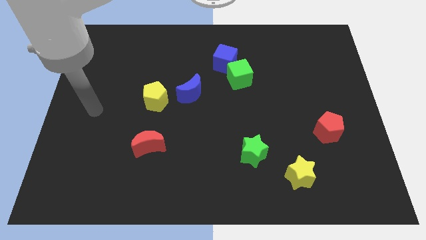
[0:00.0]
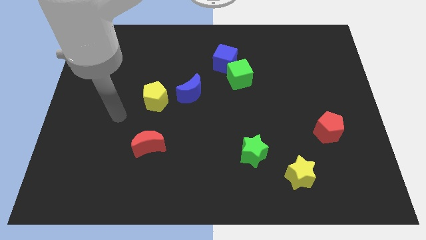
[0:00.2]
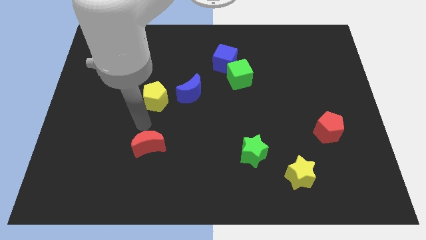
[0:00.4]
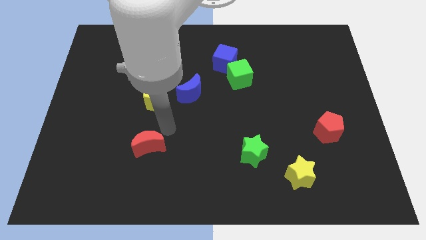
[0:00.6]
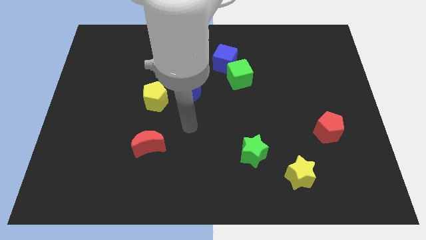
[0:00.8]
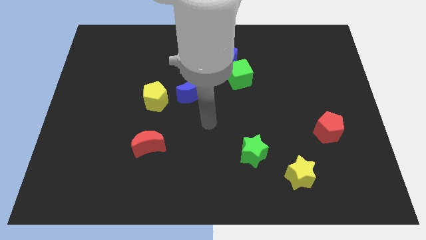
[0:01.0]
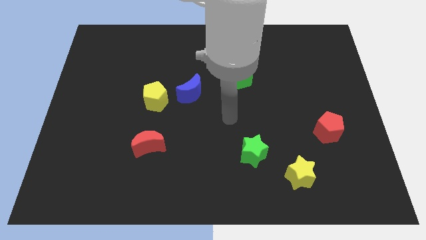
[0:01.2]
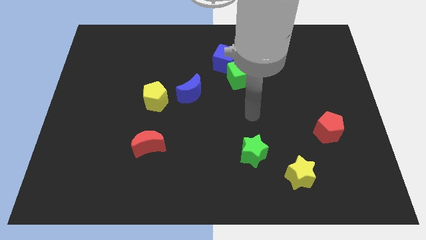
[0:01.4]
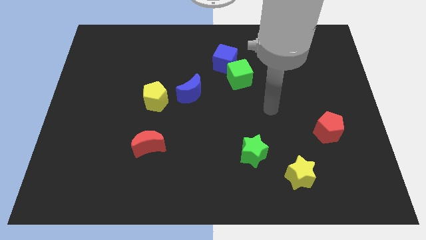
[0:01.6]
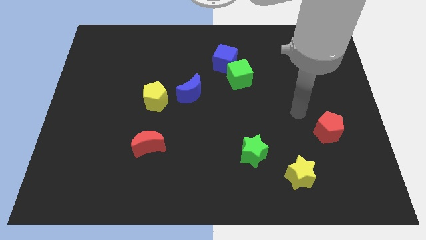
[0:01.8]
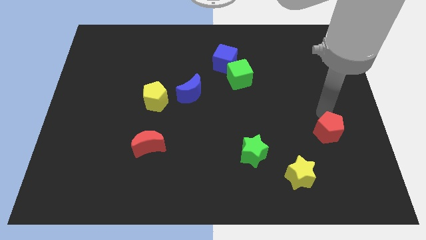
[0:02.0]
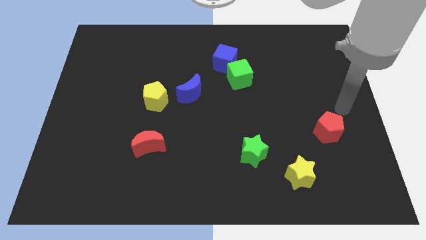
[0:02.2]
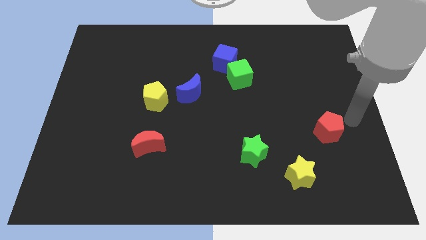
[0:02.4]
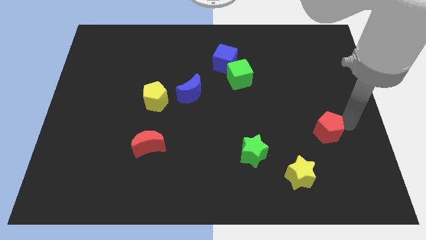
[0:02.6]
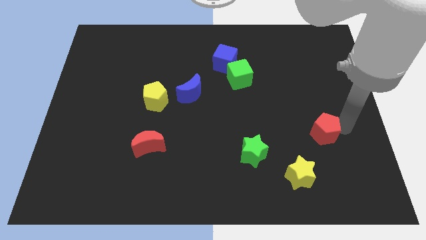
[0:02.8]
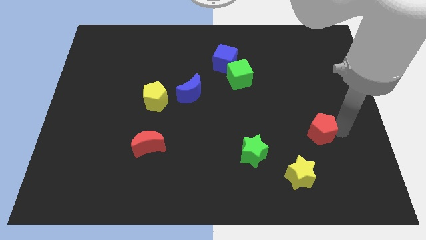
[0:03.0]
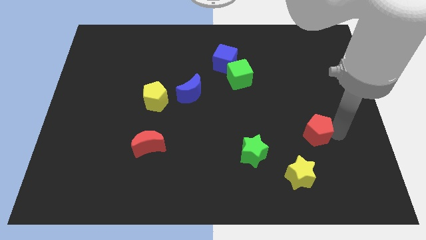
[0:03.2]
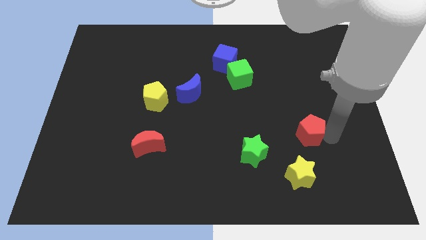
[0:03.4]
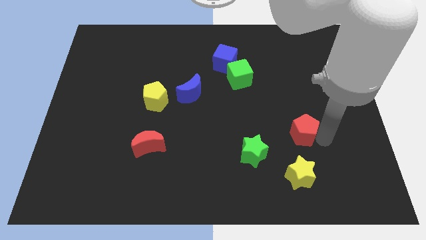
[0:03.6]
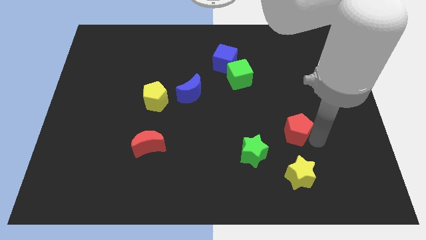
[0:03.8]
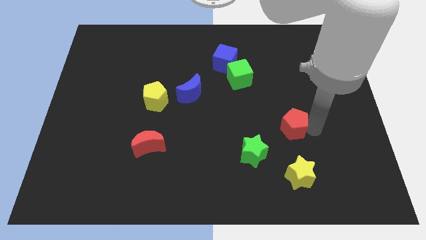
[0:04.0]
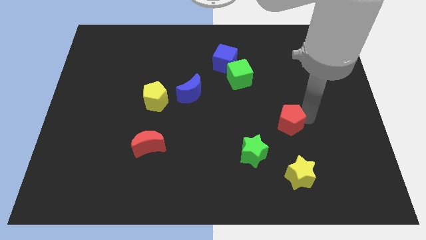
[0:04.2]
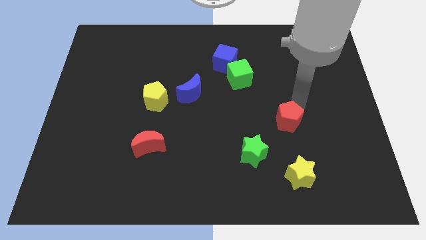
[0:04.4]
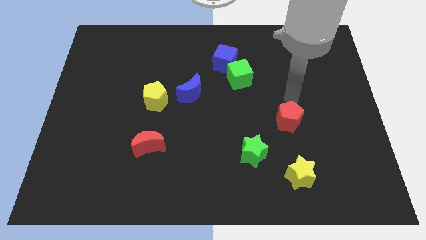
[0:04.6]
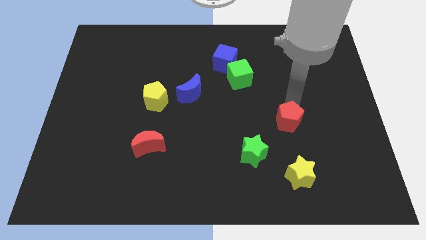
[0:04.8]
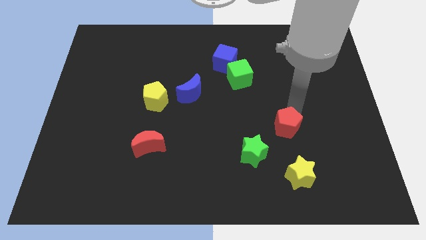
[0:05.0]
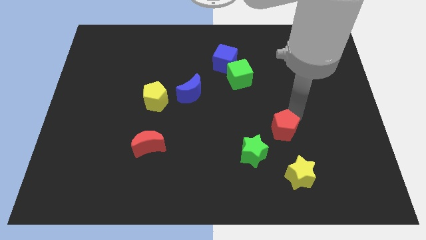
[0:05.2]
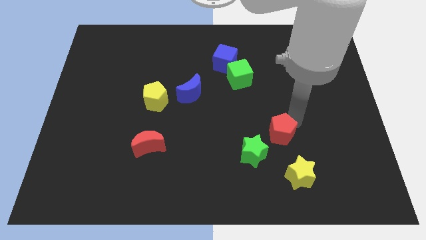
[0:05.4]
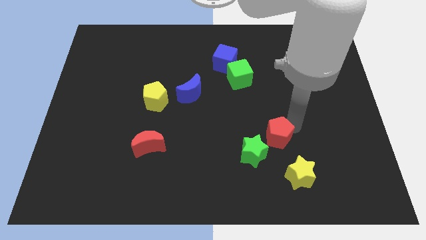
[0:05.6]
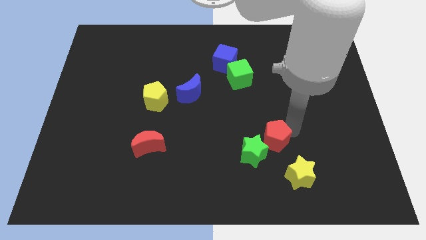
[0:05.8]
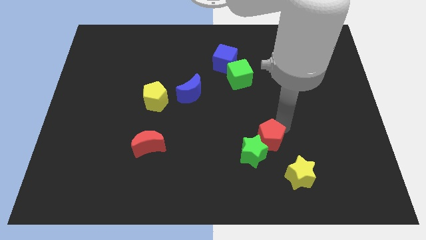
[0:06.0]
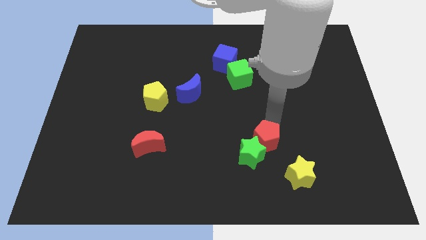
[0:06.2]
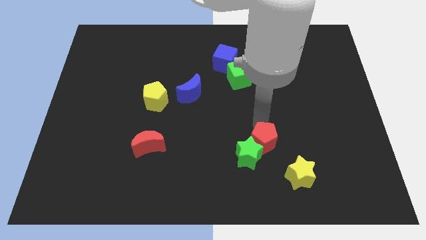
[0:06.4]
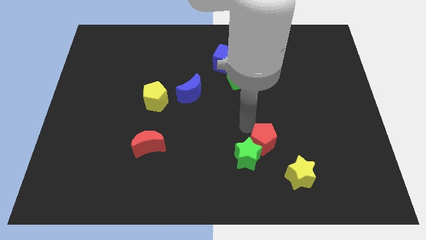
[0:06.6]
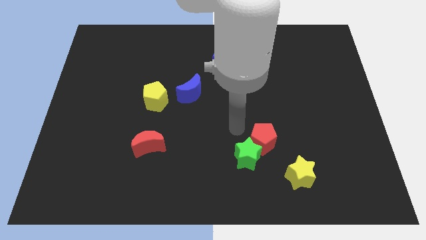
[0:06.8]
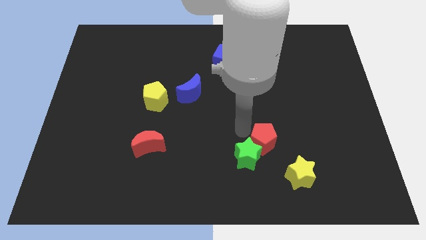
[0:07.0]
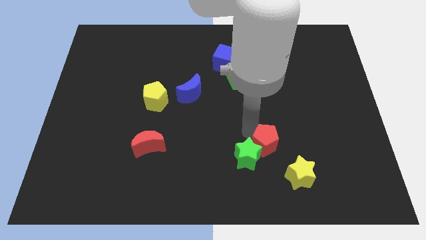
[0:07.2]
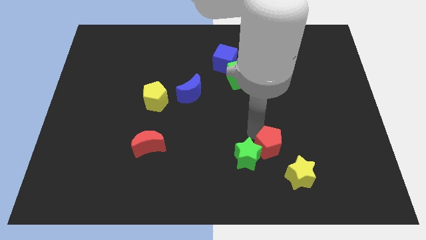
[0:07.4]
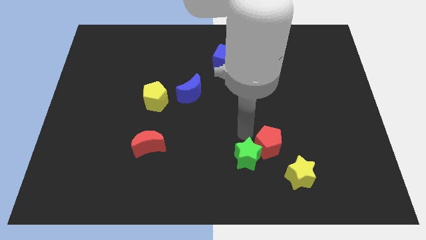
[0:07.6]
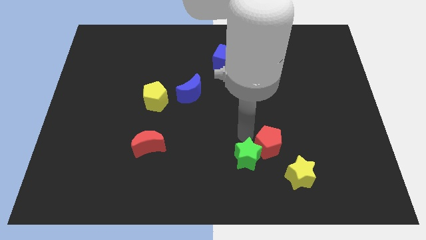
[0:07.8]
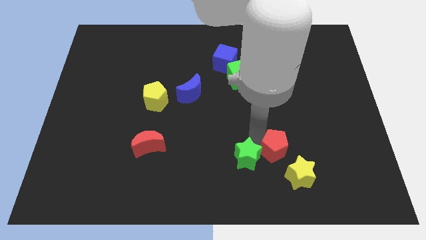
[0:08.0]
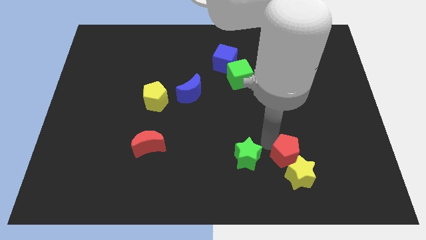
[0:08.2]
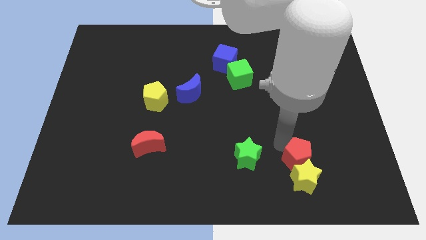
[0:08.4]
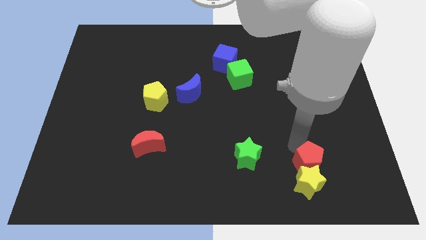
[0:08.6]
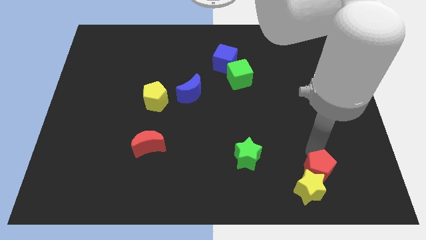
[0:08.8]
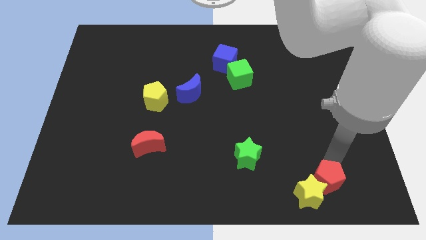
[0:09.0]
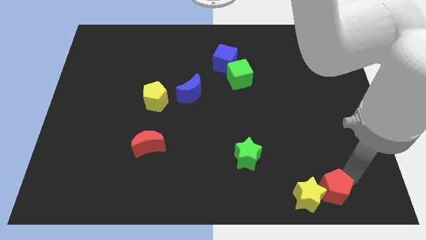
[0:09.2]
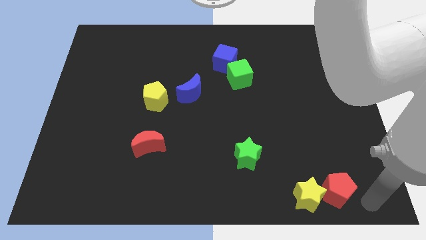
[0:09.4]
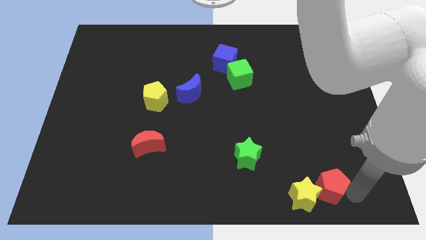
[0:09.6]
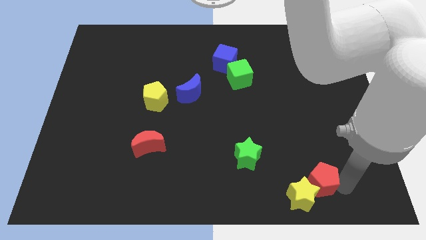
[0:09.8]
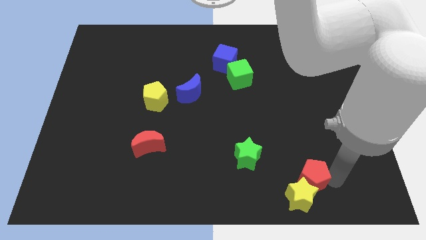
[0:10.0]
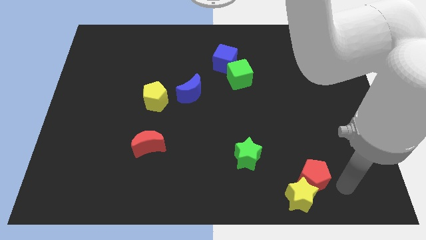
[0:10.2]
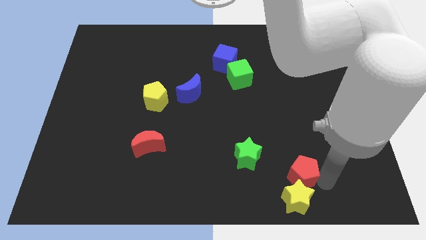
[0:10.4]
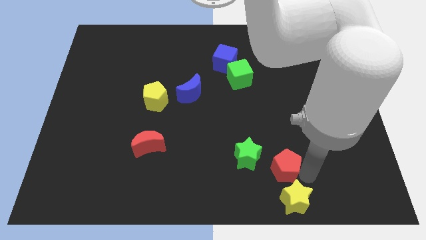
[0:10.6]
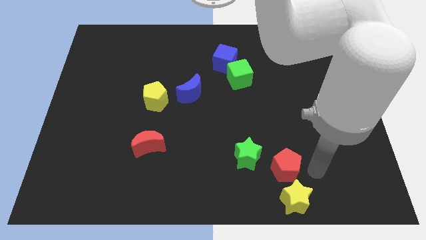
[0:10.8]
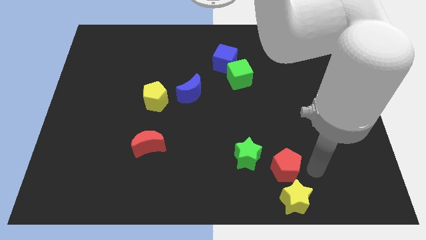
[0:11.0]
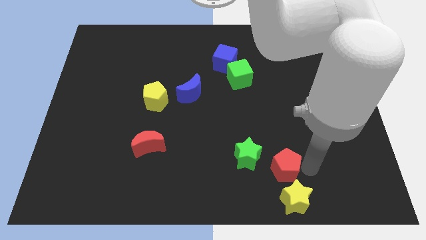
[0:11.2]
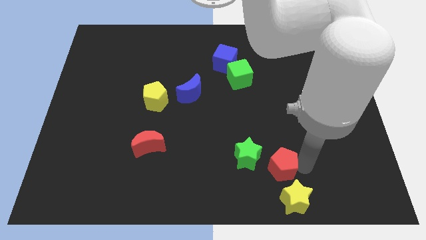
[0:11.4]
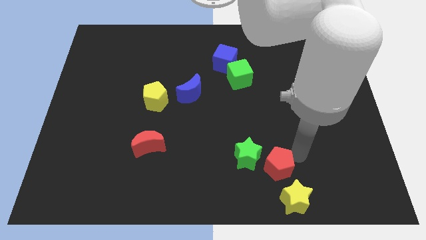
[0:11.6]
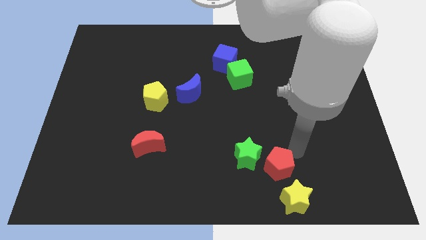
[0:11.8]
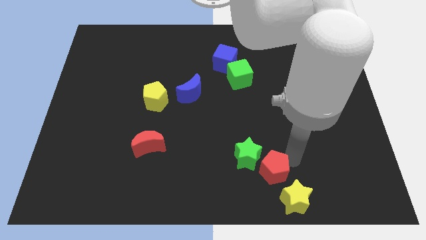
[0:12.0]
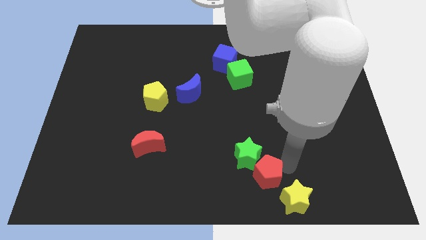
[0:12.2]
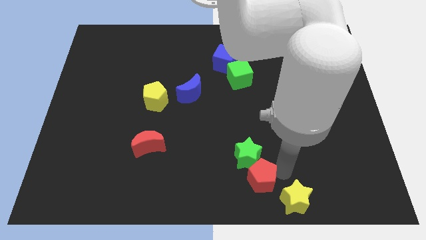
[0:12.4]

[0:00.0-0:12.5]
push the red pentagon just left of the yellow star

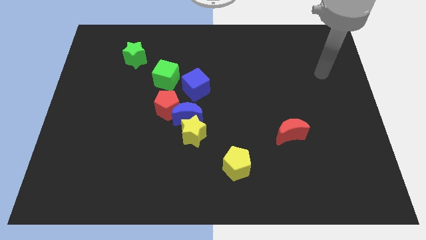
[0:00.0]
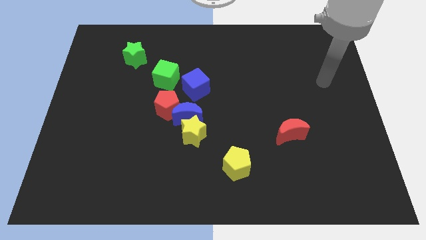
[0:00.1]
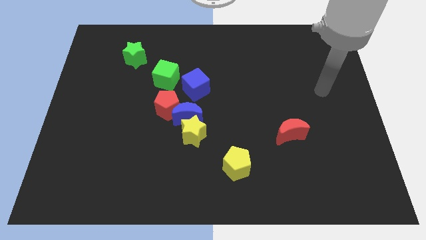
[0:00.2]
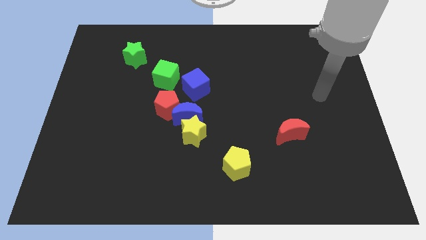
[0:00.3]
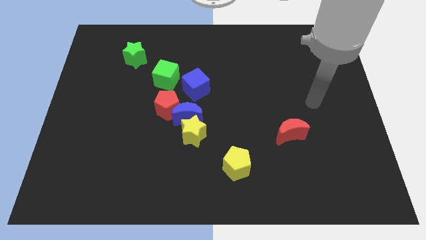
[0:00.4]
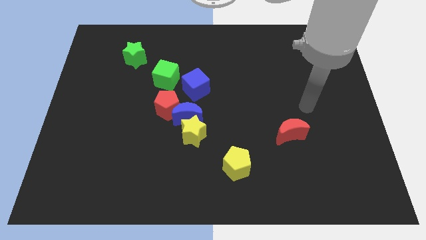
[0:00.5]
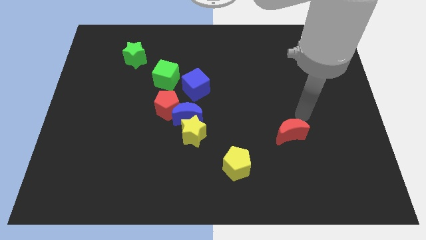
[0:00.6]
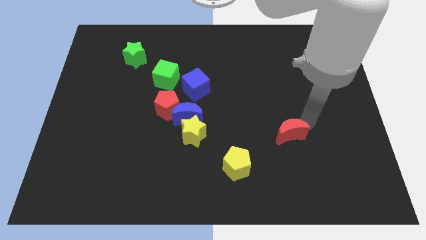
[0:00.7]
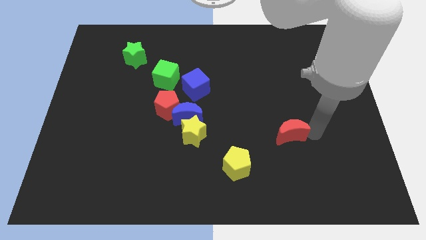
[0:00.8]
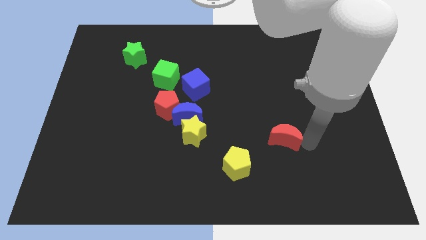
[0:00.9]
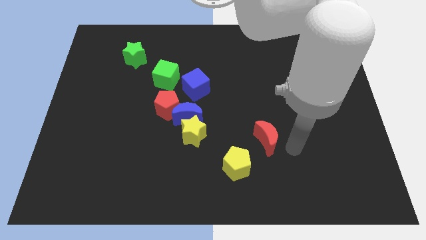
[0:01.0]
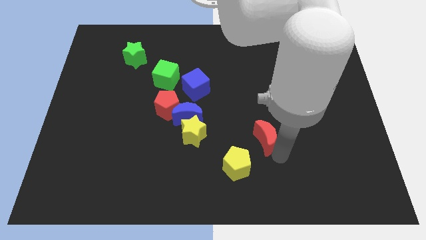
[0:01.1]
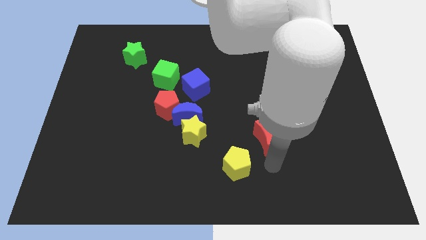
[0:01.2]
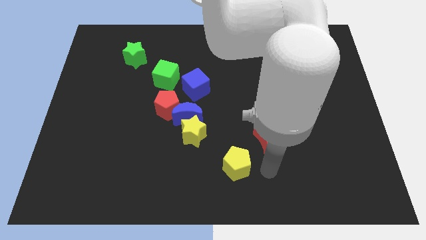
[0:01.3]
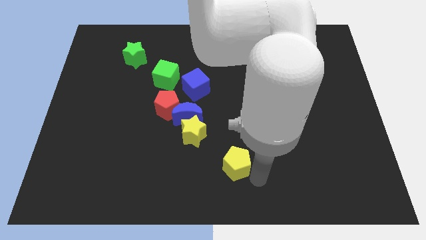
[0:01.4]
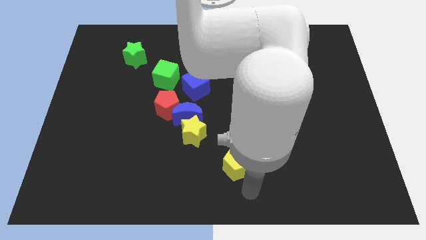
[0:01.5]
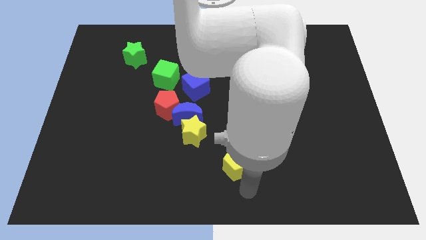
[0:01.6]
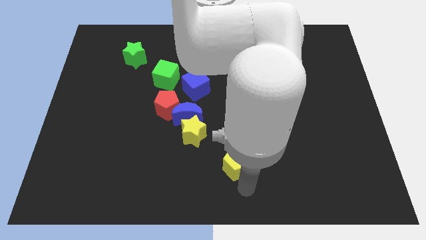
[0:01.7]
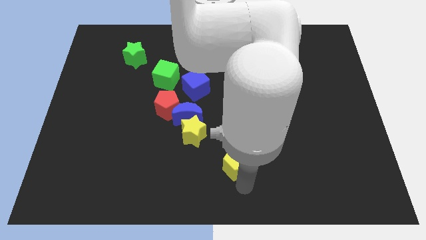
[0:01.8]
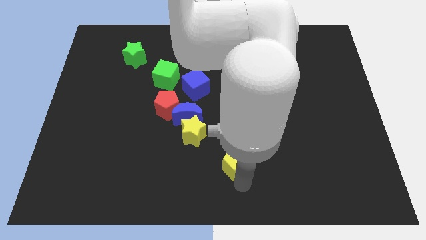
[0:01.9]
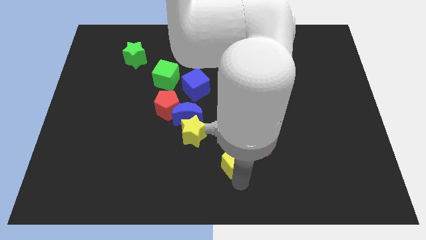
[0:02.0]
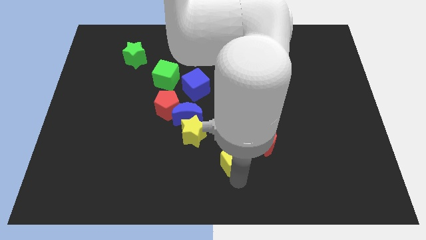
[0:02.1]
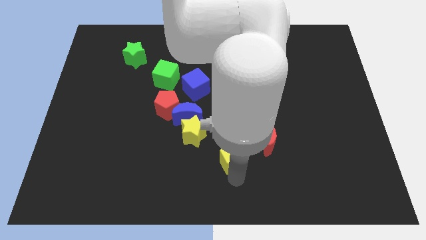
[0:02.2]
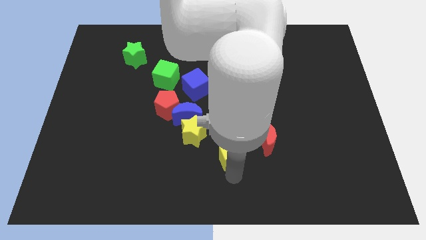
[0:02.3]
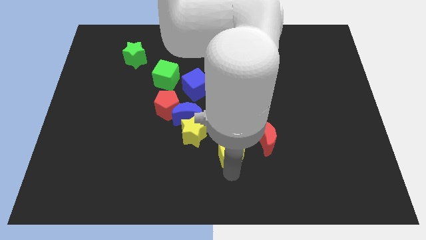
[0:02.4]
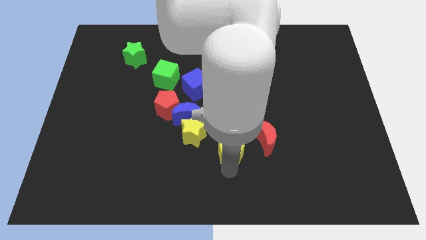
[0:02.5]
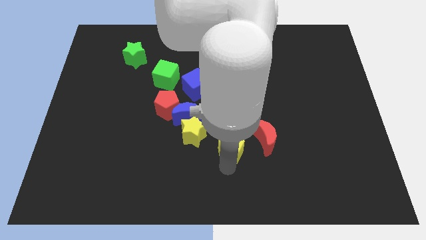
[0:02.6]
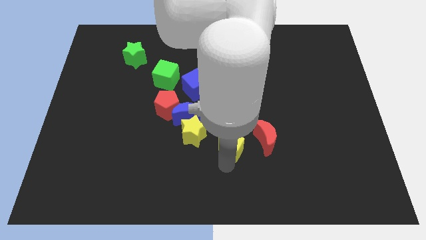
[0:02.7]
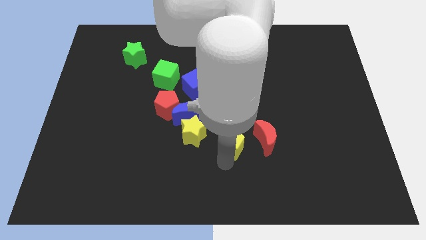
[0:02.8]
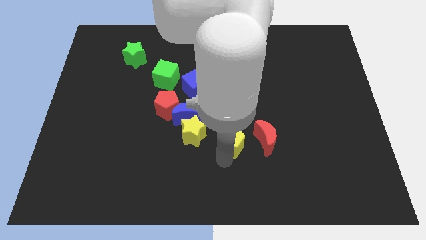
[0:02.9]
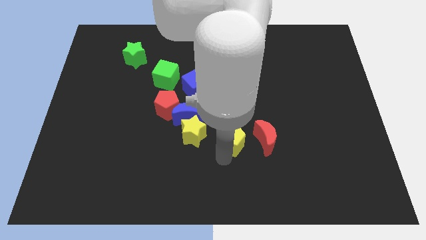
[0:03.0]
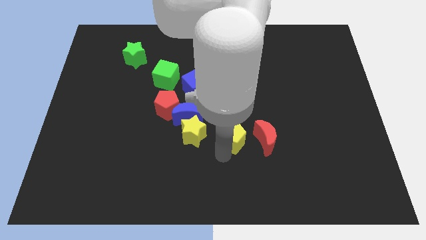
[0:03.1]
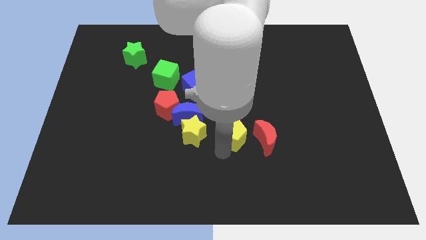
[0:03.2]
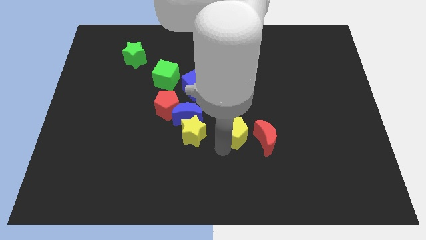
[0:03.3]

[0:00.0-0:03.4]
put the yellow pentagon right of the blue moon
